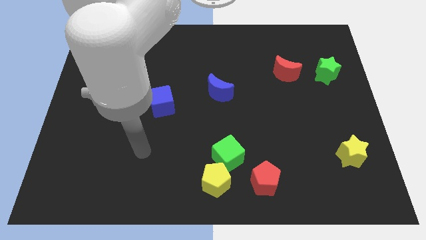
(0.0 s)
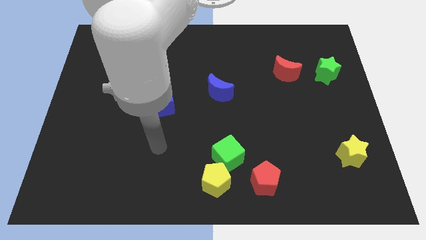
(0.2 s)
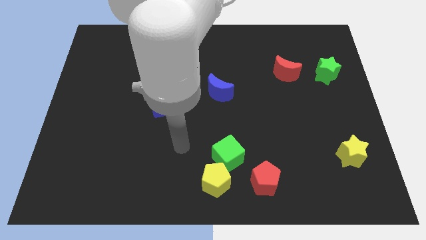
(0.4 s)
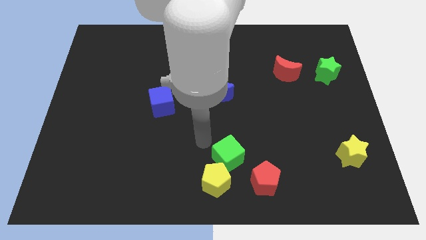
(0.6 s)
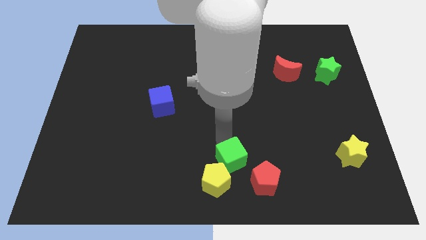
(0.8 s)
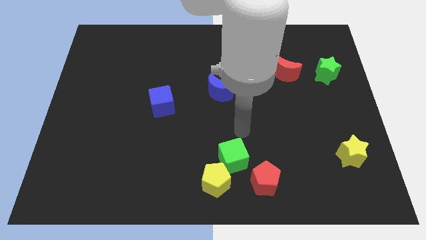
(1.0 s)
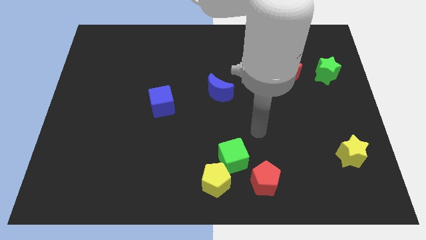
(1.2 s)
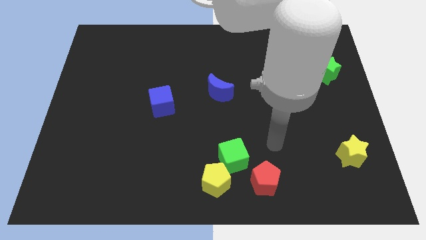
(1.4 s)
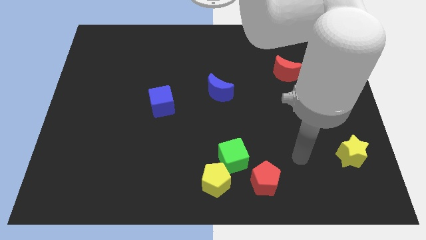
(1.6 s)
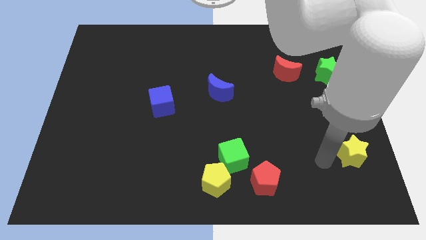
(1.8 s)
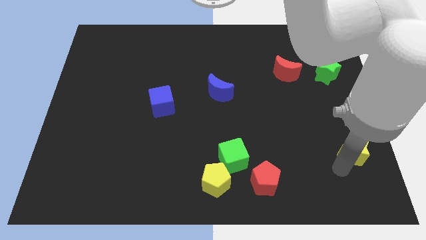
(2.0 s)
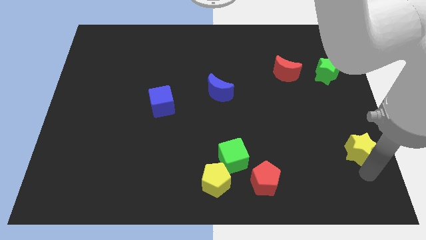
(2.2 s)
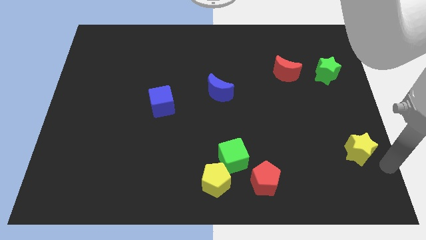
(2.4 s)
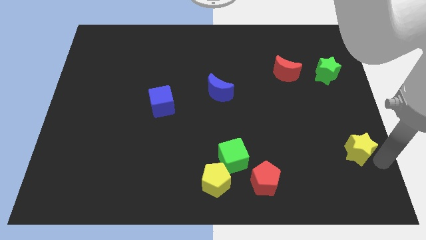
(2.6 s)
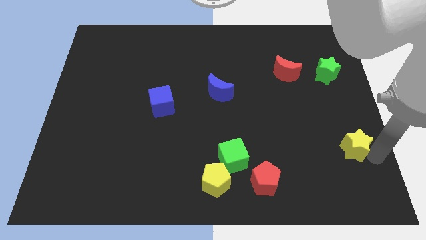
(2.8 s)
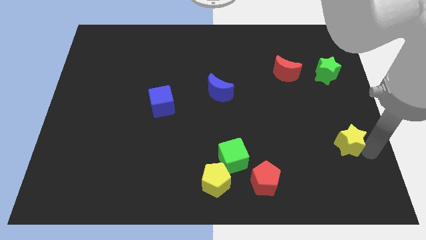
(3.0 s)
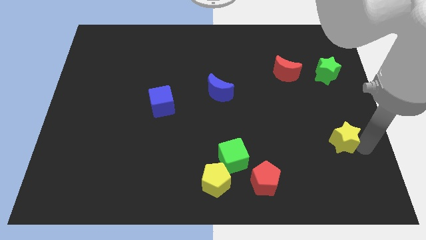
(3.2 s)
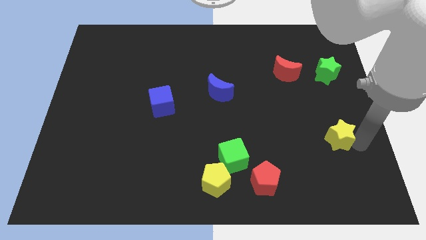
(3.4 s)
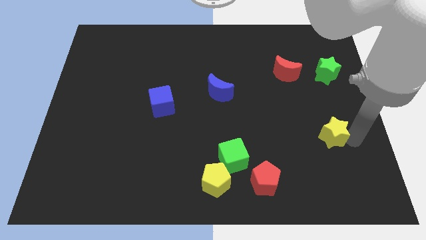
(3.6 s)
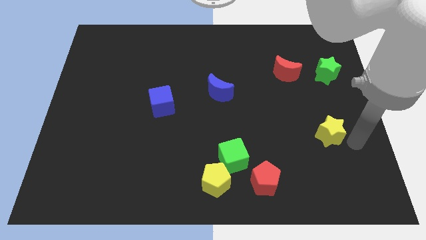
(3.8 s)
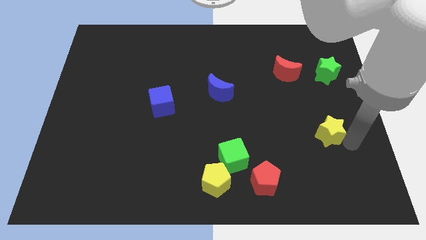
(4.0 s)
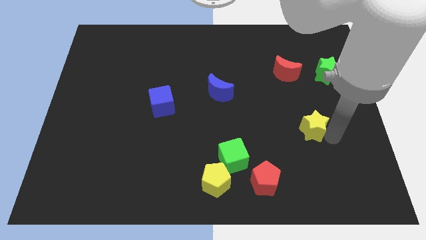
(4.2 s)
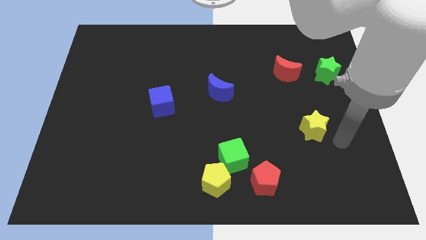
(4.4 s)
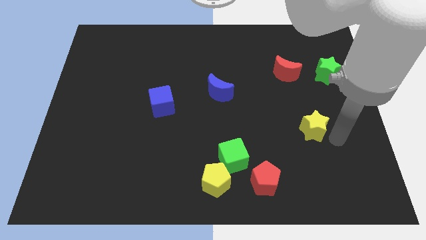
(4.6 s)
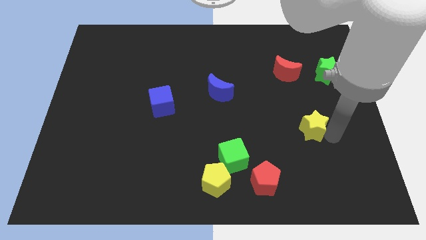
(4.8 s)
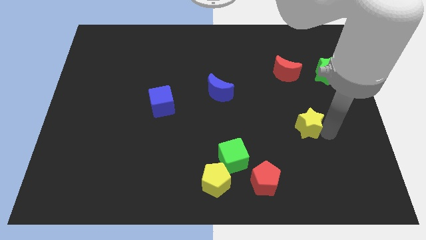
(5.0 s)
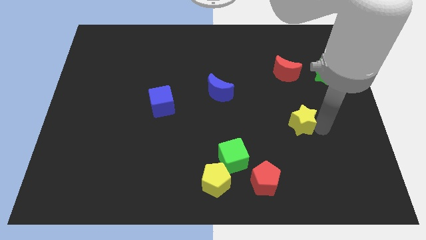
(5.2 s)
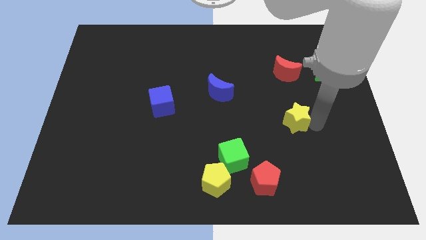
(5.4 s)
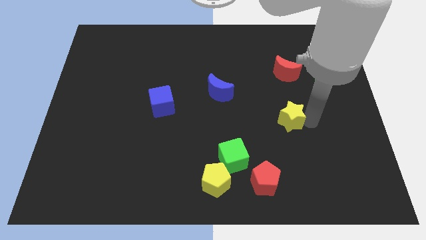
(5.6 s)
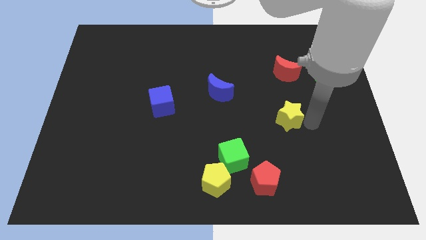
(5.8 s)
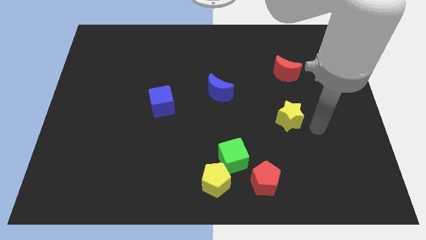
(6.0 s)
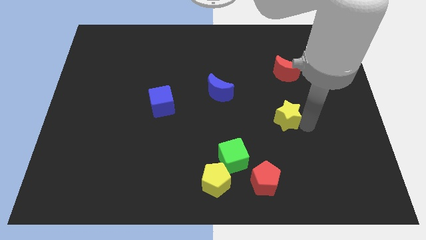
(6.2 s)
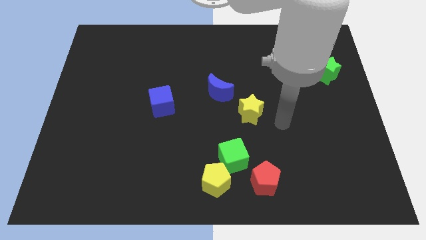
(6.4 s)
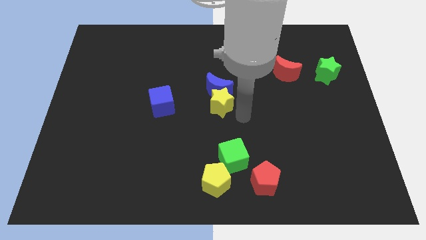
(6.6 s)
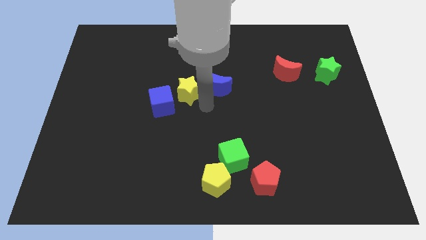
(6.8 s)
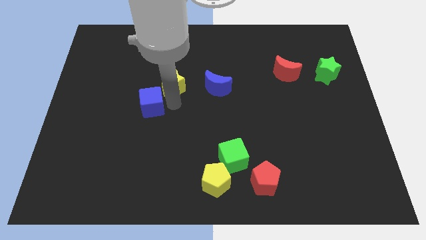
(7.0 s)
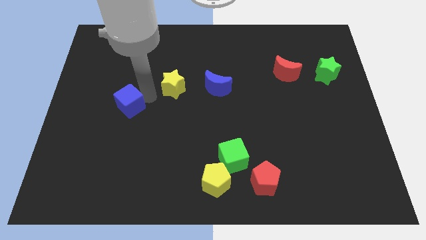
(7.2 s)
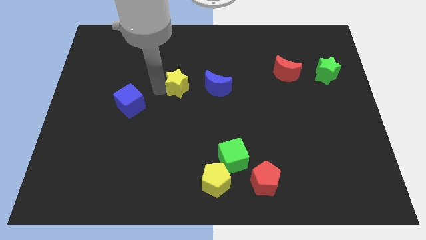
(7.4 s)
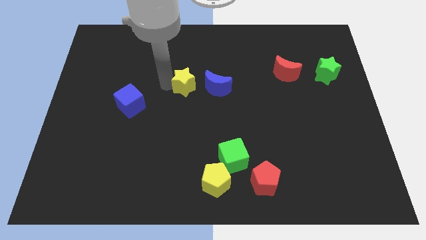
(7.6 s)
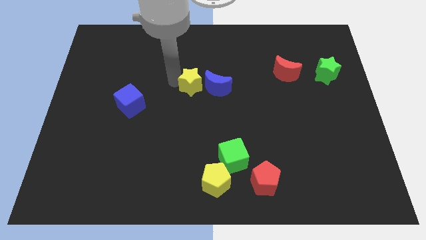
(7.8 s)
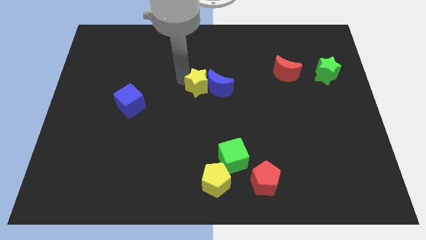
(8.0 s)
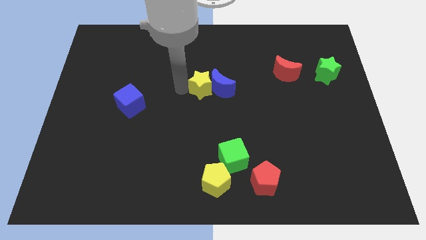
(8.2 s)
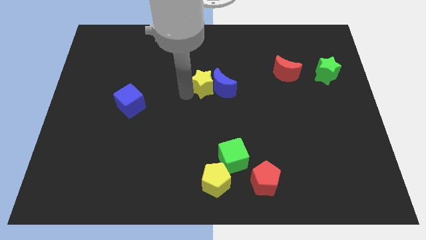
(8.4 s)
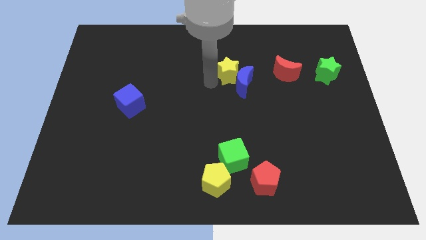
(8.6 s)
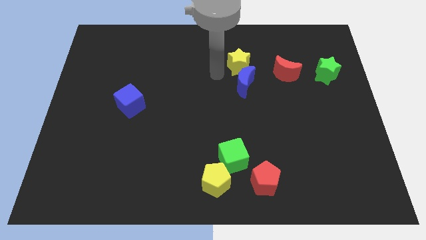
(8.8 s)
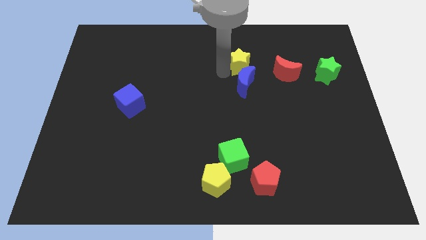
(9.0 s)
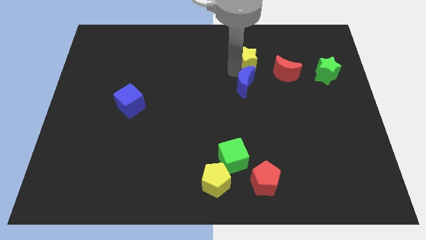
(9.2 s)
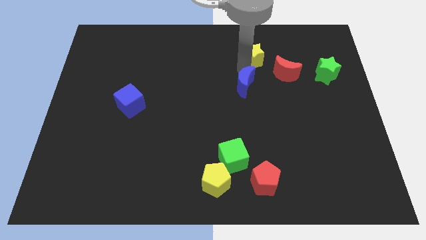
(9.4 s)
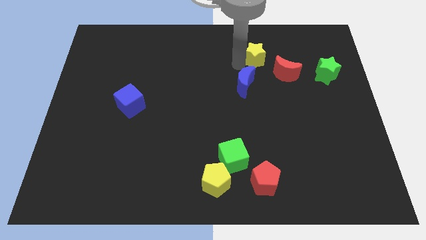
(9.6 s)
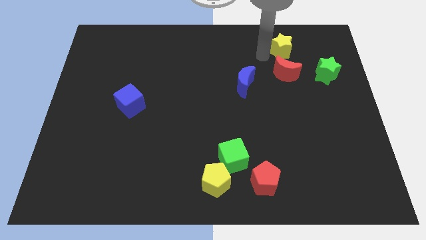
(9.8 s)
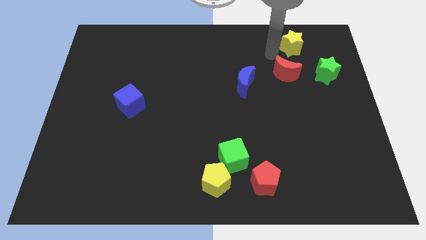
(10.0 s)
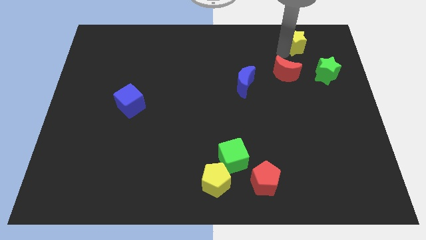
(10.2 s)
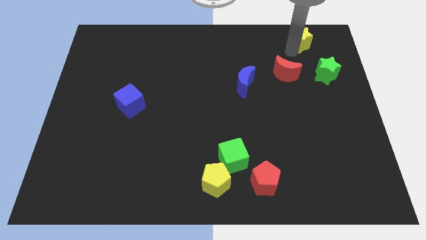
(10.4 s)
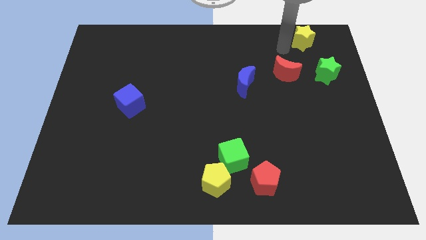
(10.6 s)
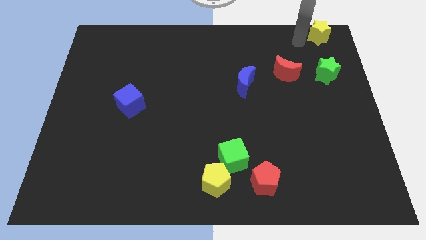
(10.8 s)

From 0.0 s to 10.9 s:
push the yellow star to the top right

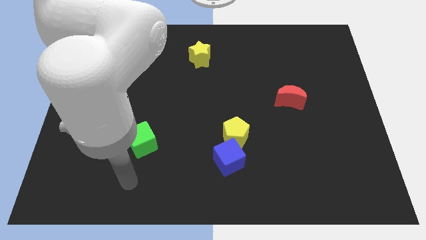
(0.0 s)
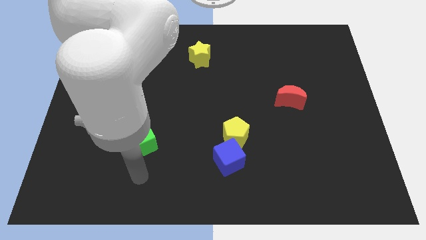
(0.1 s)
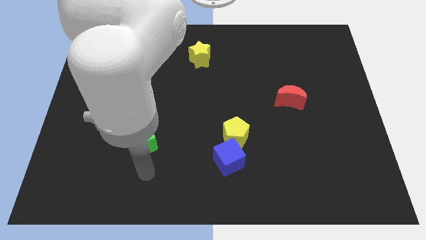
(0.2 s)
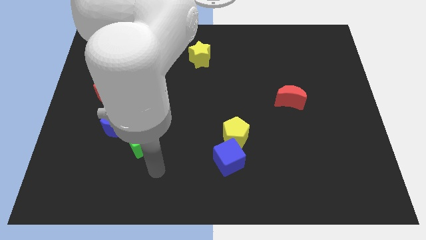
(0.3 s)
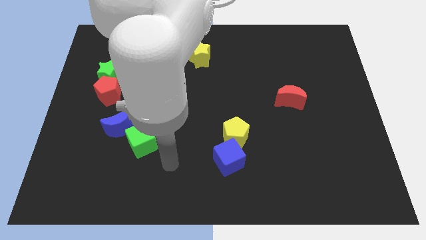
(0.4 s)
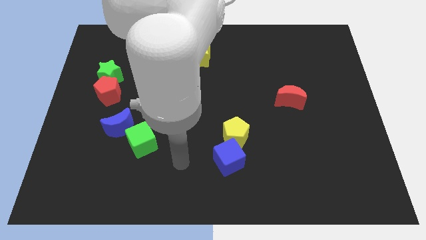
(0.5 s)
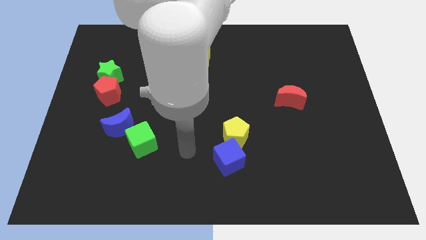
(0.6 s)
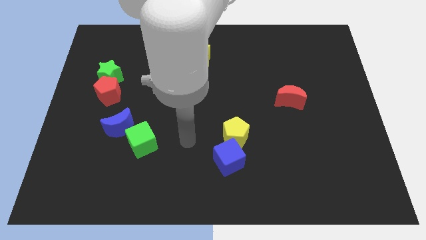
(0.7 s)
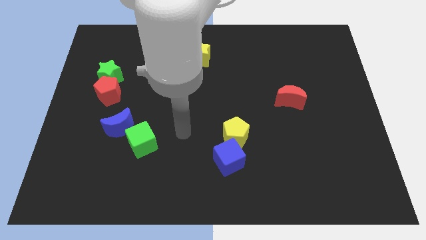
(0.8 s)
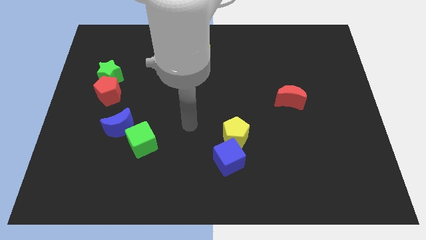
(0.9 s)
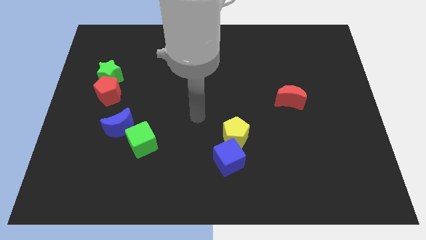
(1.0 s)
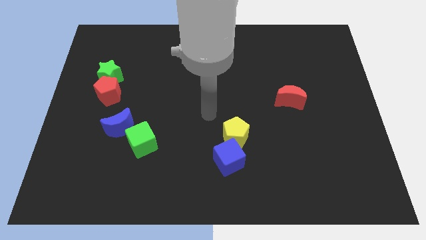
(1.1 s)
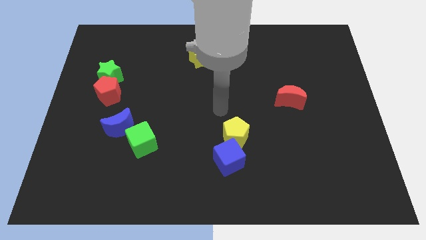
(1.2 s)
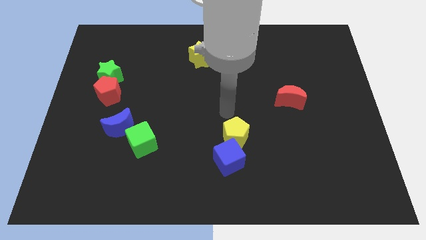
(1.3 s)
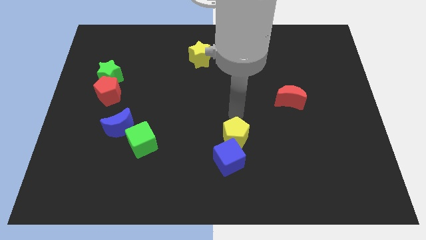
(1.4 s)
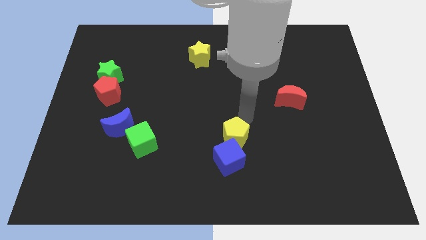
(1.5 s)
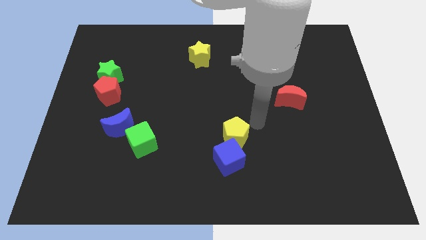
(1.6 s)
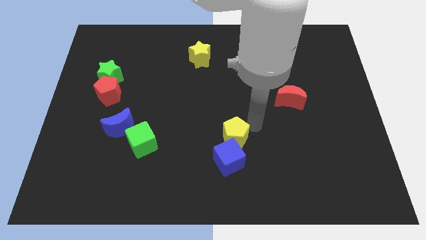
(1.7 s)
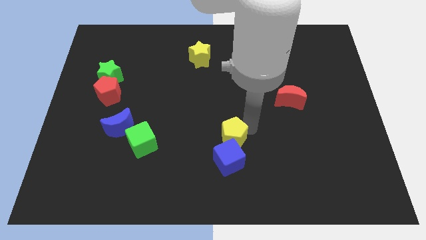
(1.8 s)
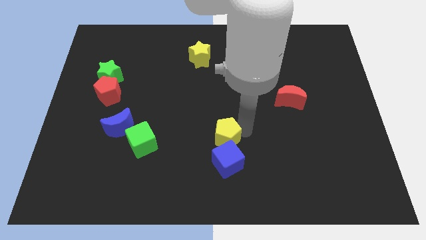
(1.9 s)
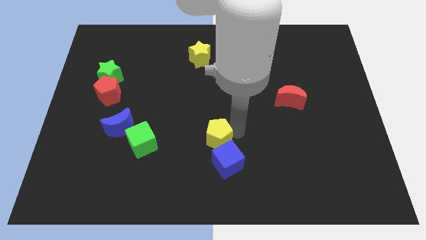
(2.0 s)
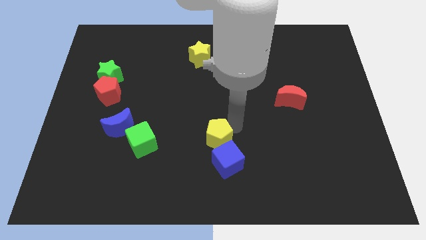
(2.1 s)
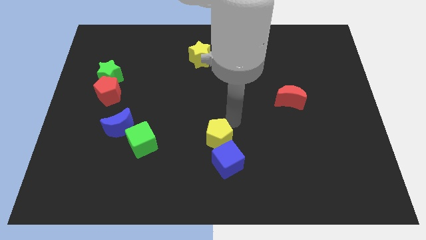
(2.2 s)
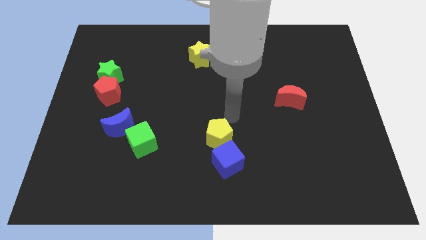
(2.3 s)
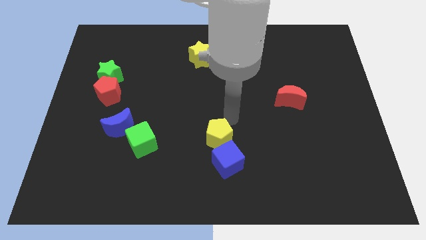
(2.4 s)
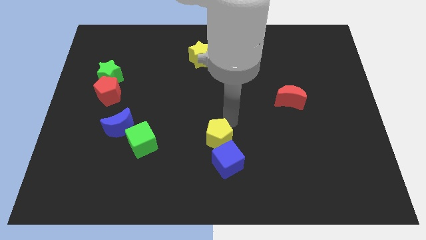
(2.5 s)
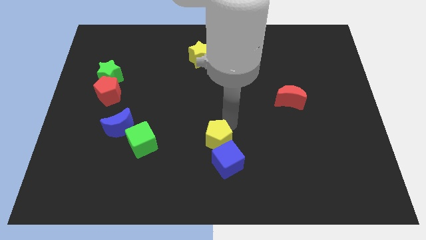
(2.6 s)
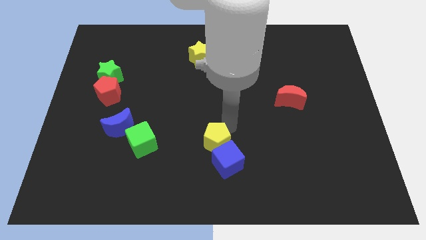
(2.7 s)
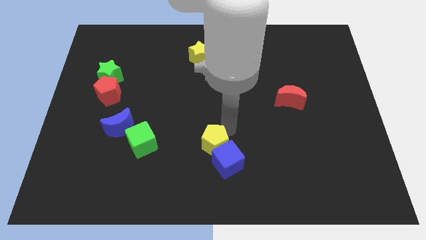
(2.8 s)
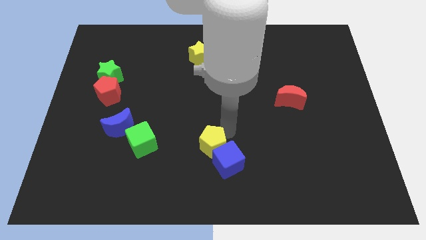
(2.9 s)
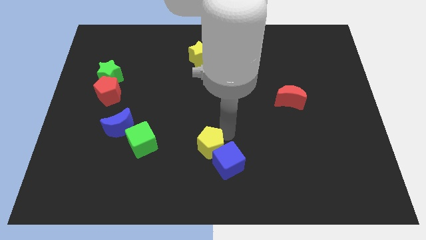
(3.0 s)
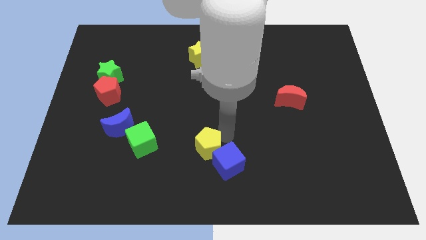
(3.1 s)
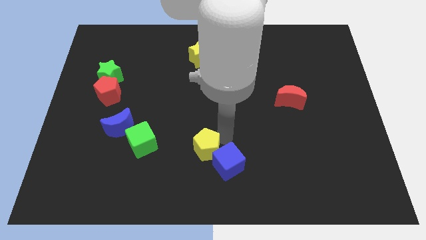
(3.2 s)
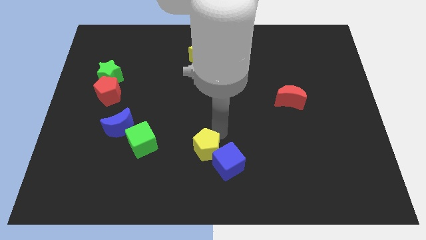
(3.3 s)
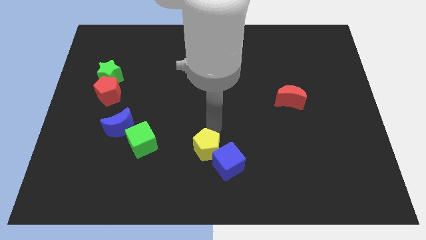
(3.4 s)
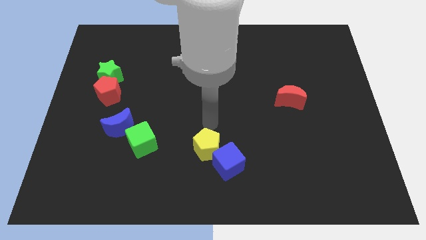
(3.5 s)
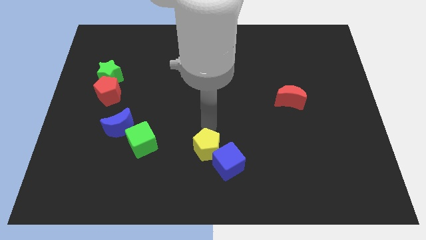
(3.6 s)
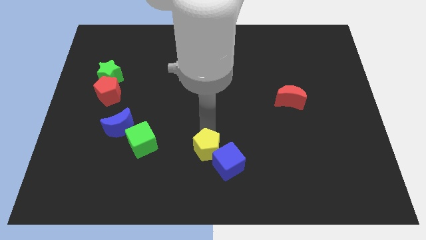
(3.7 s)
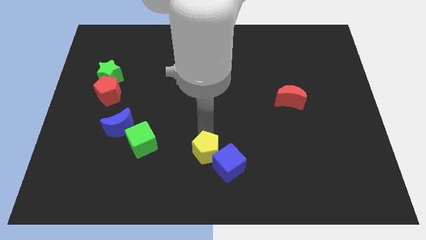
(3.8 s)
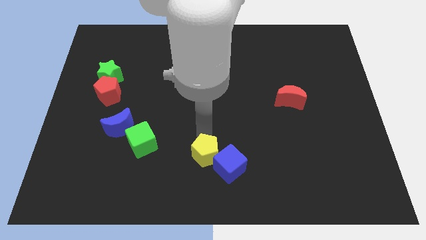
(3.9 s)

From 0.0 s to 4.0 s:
move the yellow pentagon to the bottom
